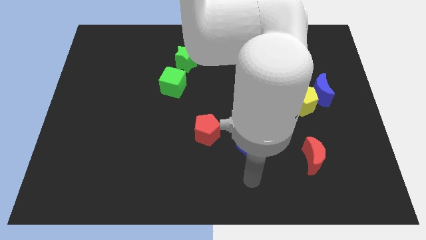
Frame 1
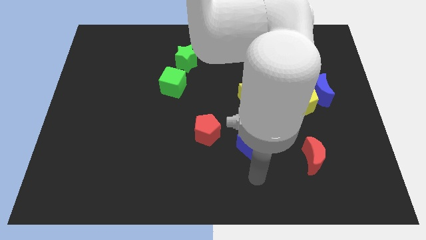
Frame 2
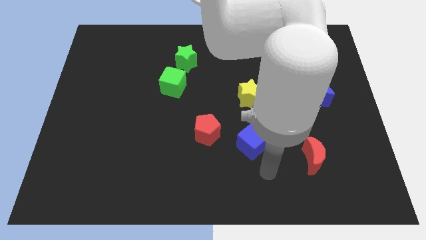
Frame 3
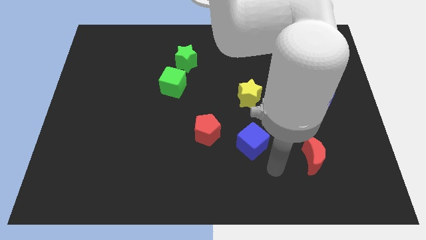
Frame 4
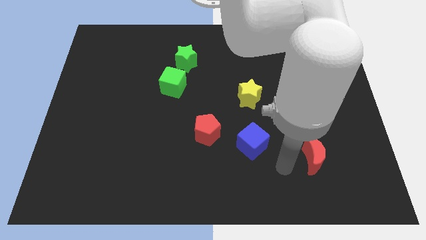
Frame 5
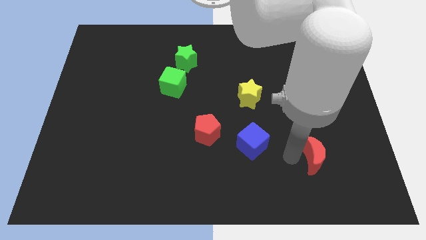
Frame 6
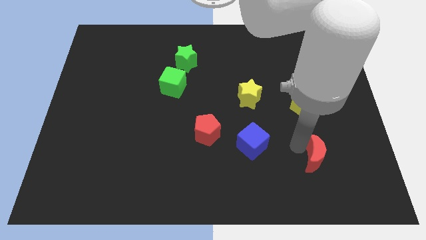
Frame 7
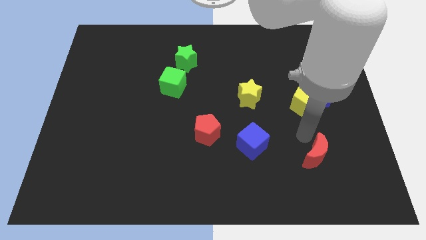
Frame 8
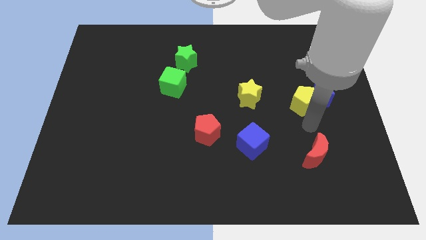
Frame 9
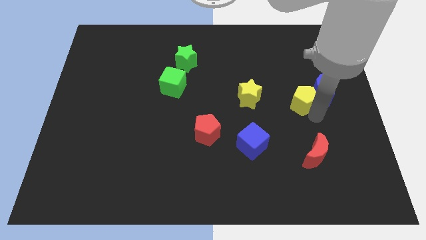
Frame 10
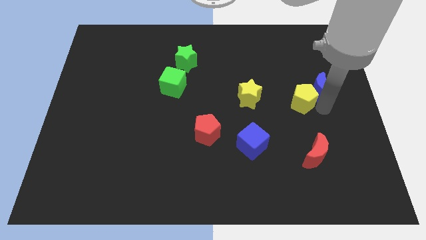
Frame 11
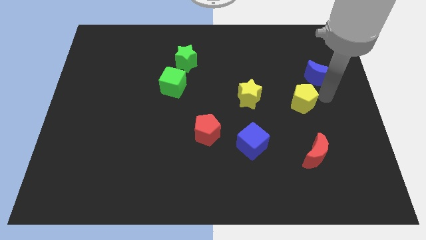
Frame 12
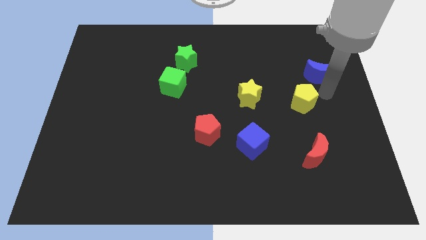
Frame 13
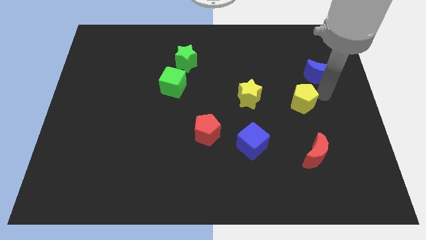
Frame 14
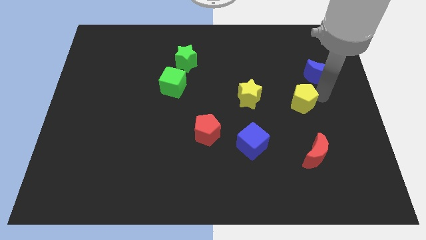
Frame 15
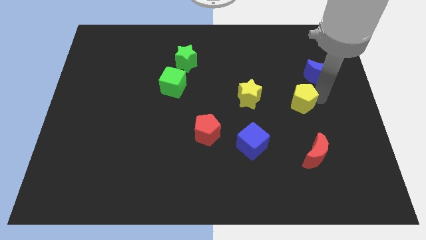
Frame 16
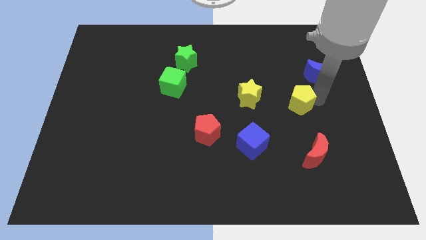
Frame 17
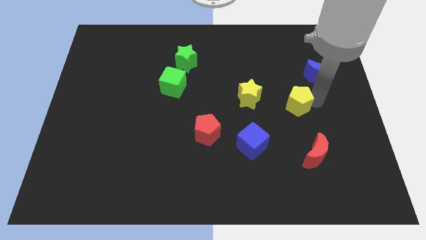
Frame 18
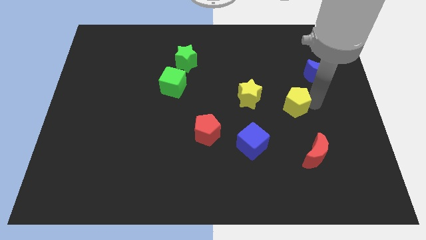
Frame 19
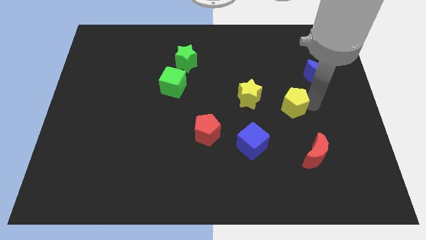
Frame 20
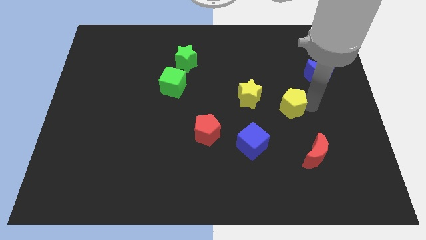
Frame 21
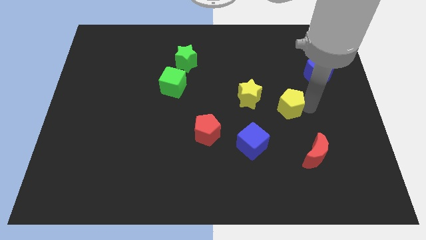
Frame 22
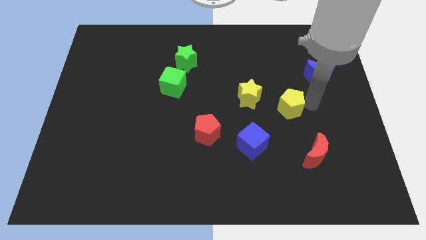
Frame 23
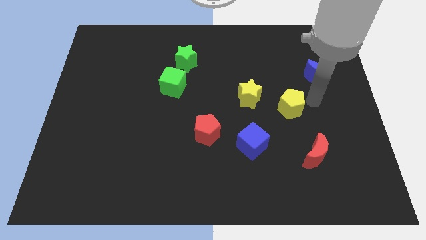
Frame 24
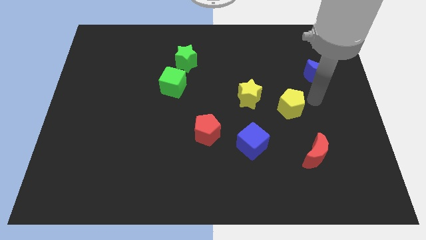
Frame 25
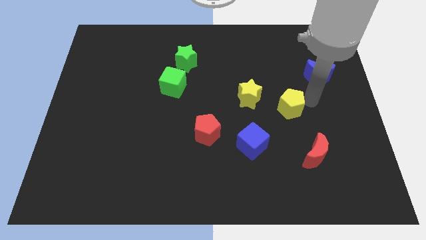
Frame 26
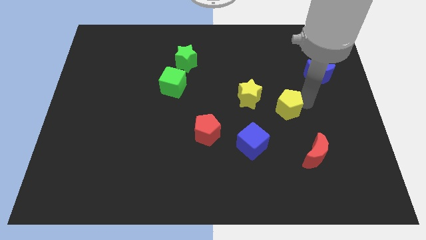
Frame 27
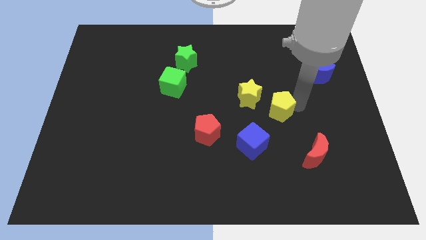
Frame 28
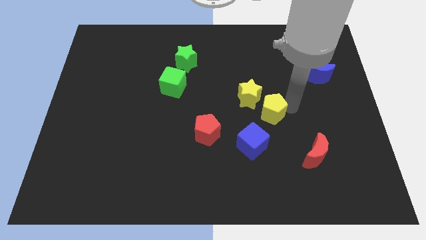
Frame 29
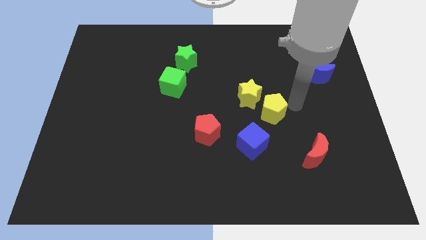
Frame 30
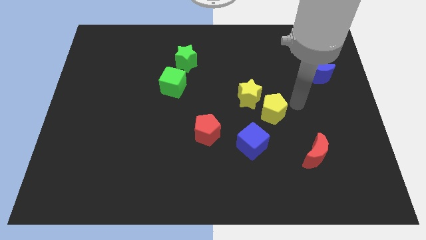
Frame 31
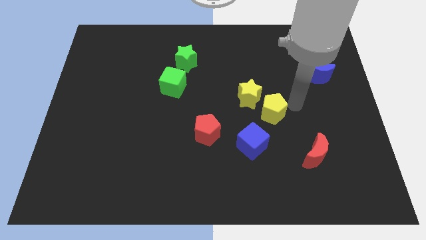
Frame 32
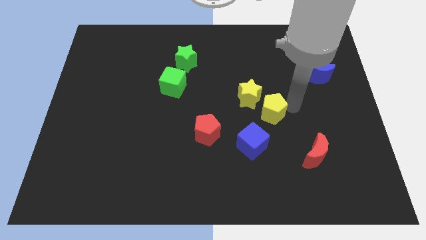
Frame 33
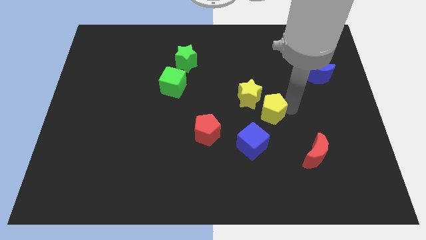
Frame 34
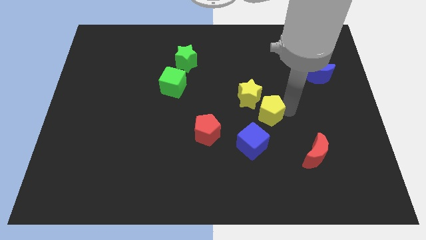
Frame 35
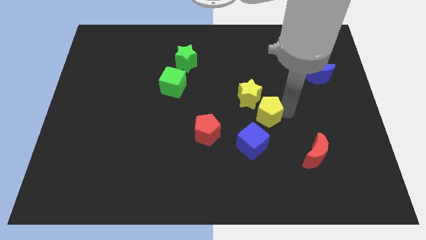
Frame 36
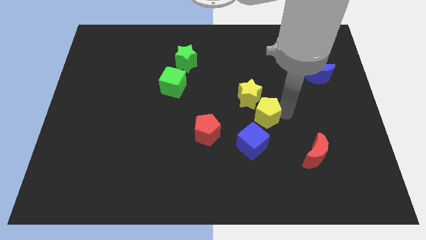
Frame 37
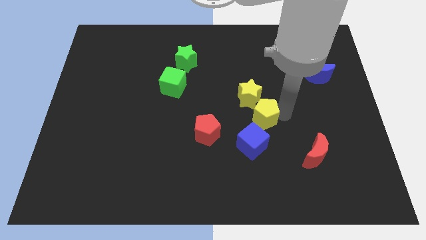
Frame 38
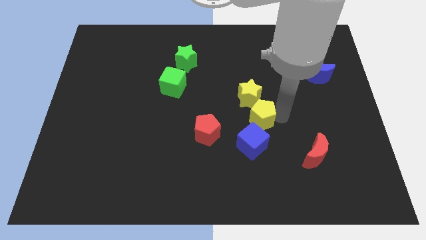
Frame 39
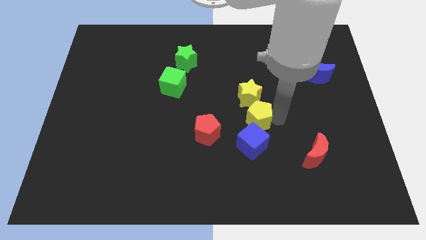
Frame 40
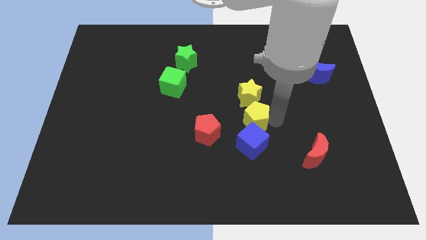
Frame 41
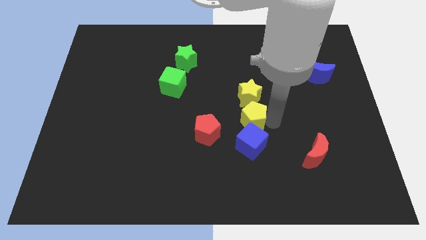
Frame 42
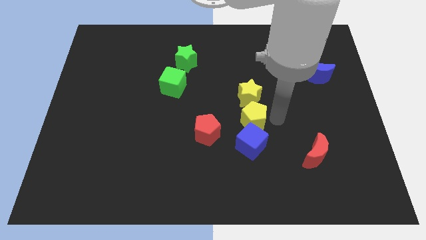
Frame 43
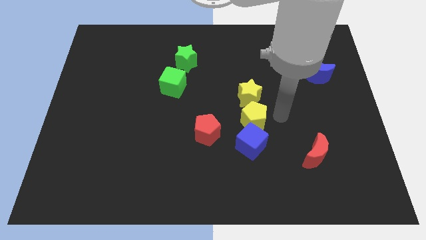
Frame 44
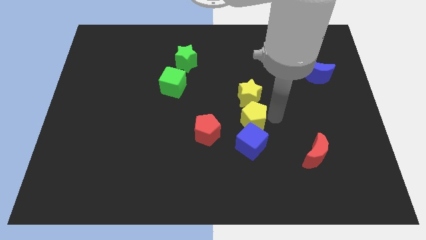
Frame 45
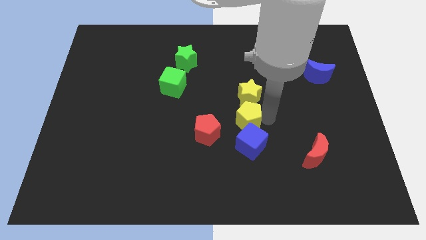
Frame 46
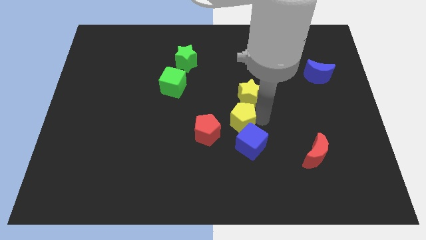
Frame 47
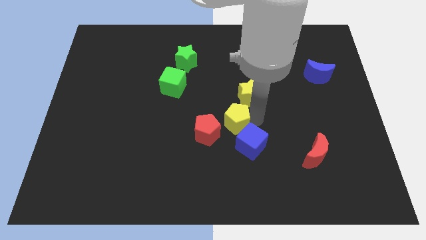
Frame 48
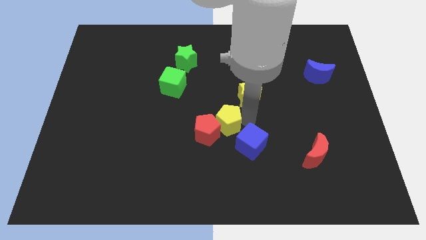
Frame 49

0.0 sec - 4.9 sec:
move the yellow pentagon close to the red pentagon

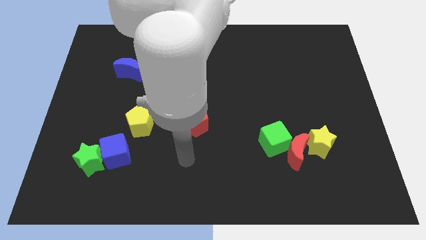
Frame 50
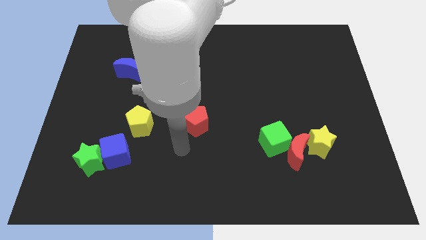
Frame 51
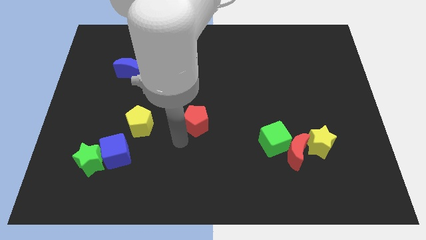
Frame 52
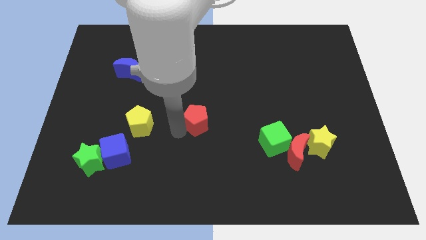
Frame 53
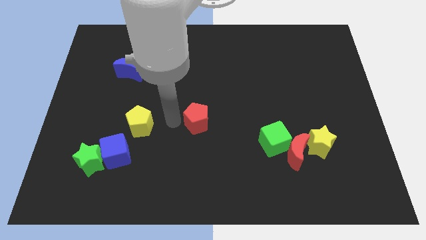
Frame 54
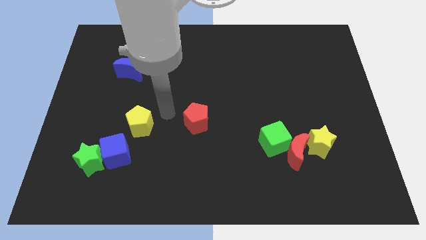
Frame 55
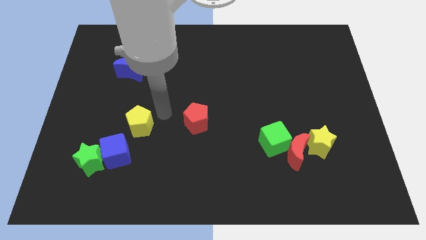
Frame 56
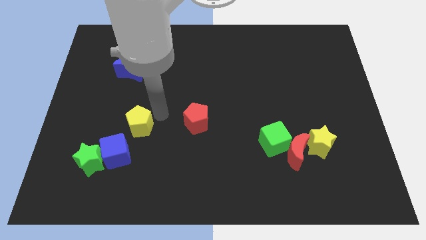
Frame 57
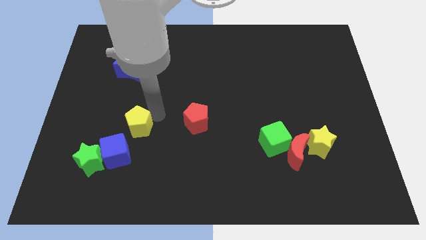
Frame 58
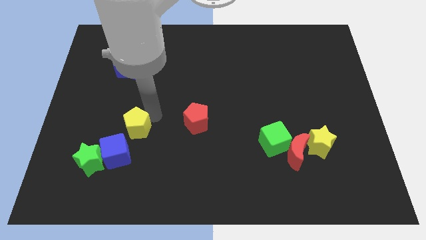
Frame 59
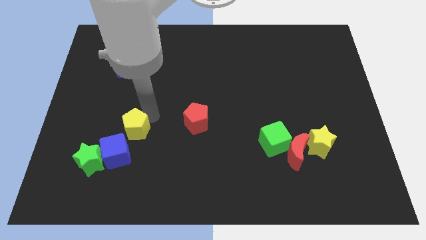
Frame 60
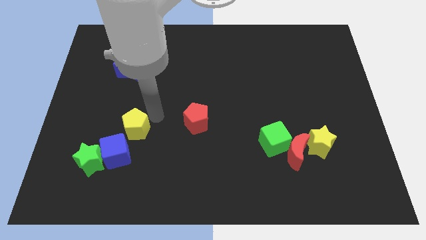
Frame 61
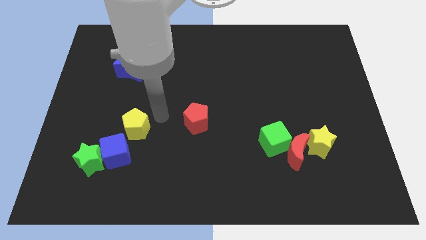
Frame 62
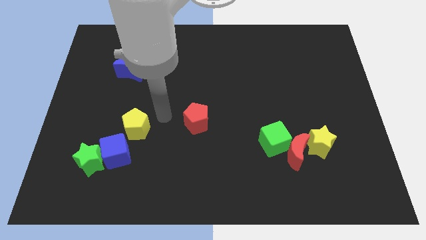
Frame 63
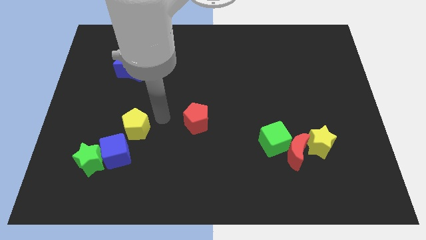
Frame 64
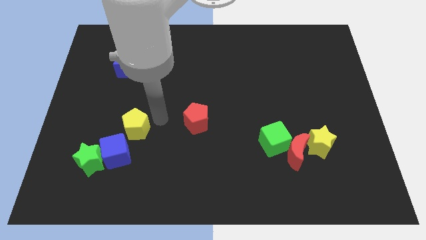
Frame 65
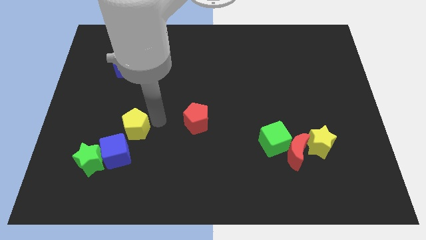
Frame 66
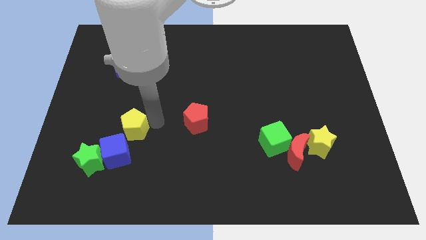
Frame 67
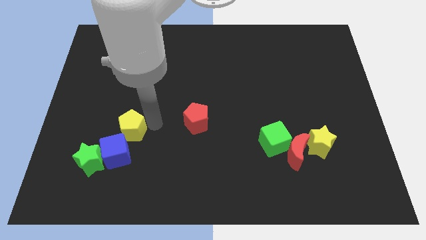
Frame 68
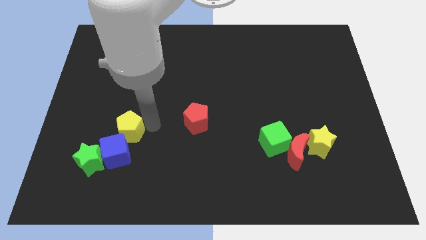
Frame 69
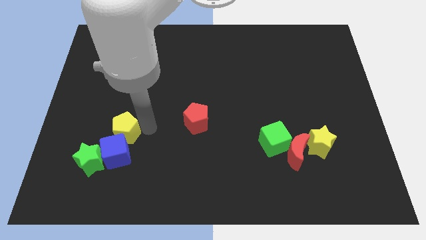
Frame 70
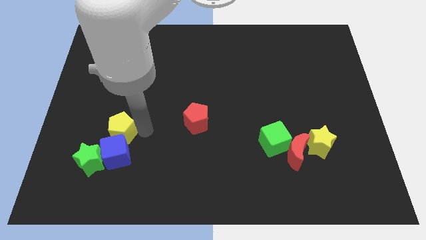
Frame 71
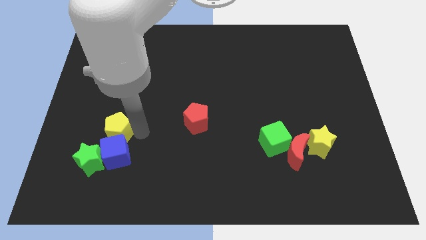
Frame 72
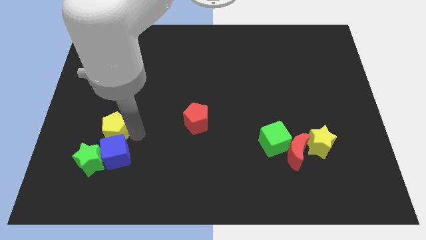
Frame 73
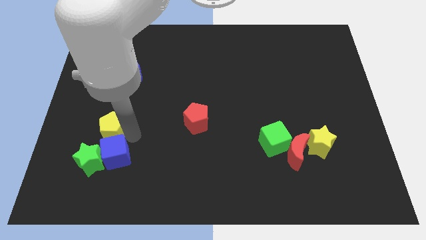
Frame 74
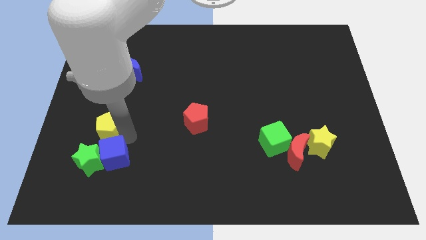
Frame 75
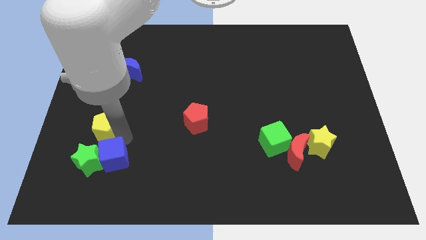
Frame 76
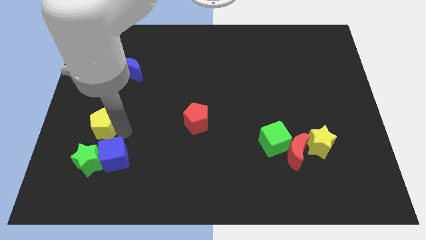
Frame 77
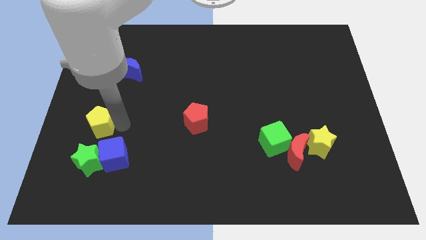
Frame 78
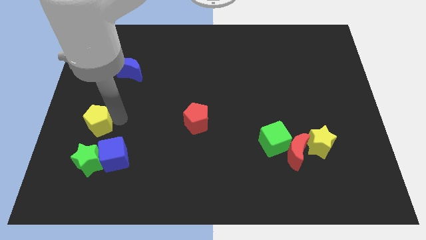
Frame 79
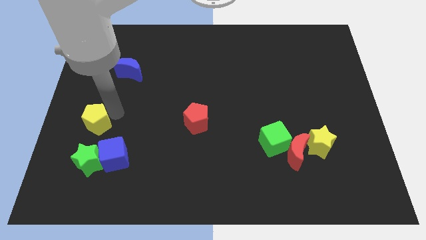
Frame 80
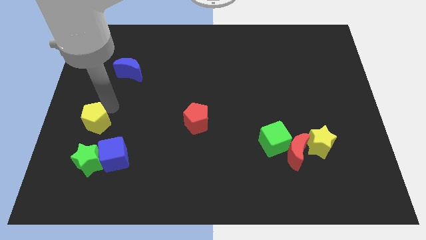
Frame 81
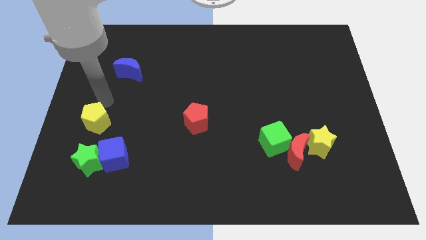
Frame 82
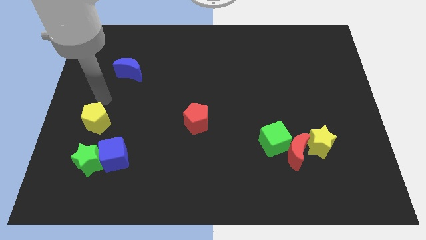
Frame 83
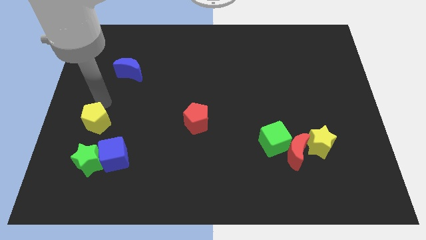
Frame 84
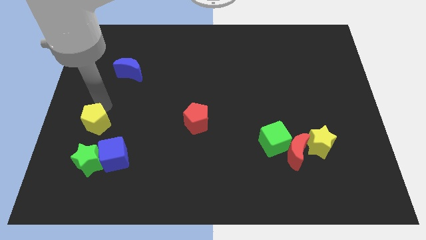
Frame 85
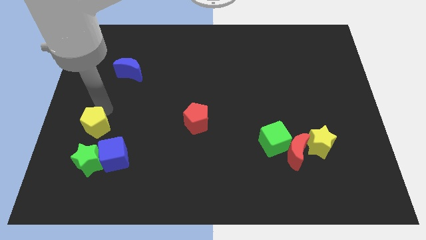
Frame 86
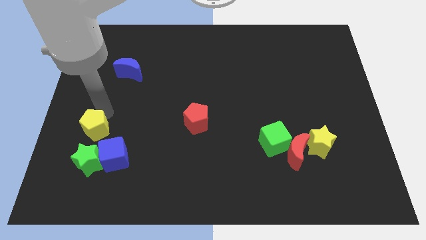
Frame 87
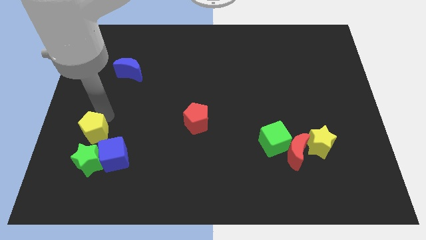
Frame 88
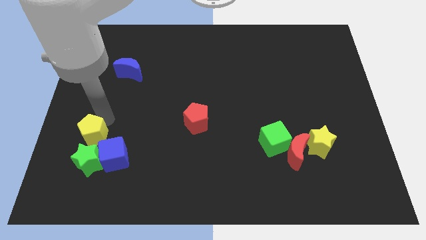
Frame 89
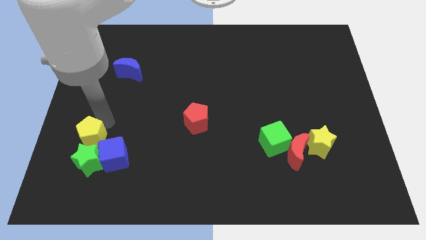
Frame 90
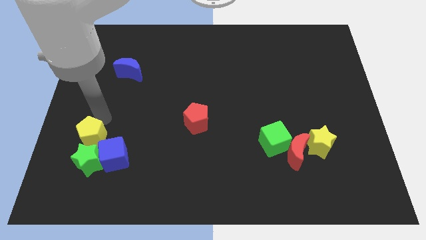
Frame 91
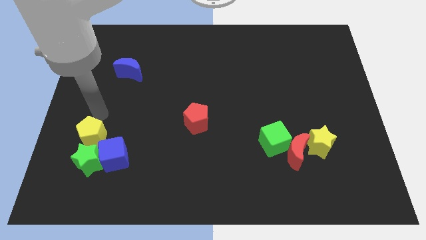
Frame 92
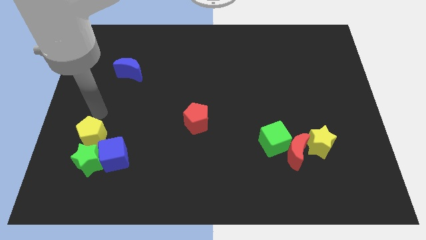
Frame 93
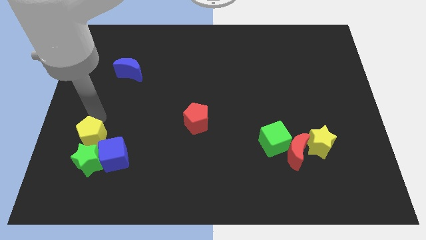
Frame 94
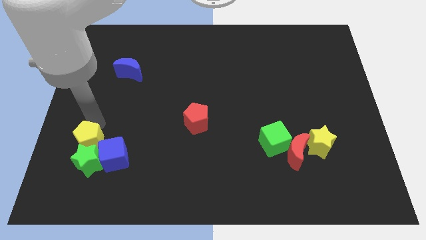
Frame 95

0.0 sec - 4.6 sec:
slide the yellow pentagon to the green star
